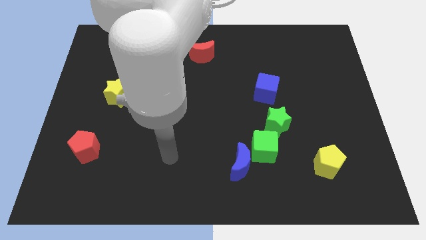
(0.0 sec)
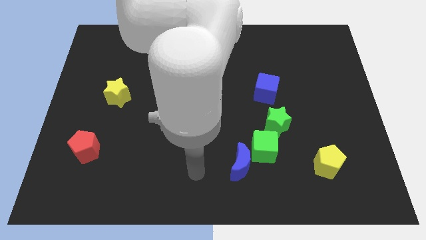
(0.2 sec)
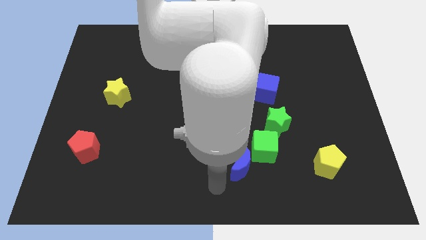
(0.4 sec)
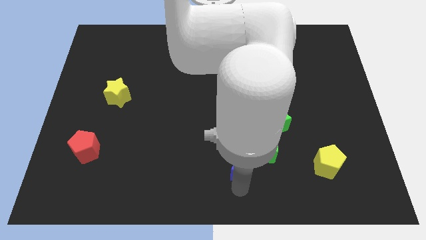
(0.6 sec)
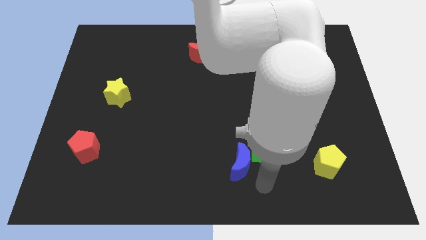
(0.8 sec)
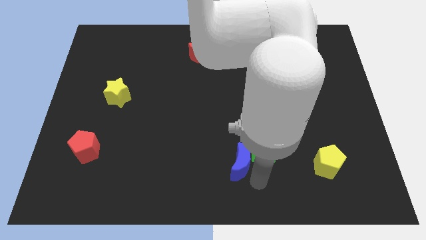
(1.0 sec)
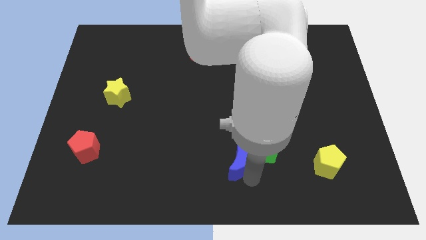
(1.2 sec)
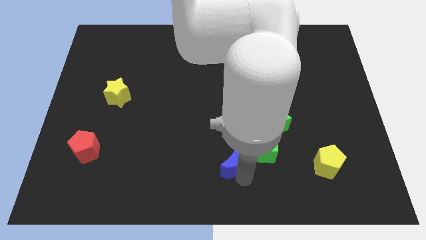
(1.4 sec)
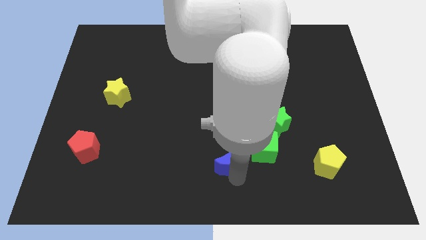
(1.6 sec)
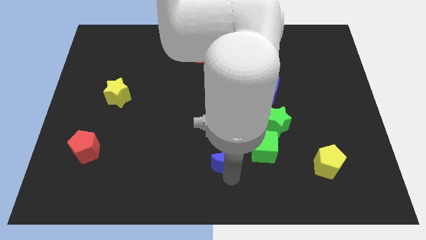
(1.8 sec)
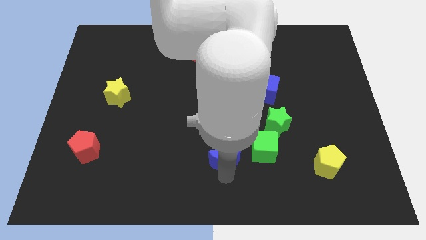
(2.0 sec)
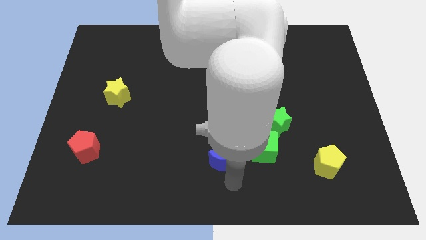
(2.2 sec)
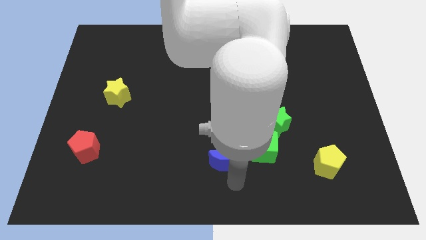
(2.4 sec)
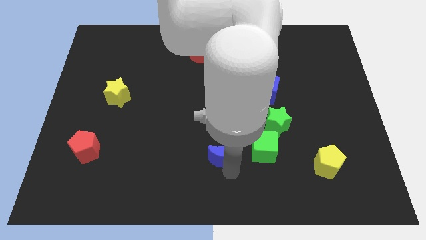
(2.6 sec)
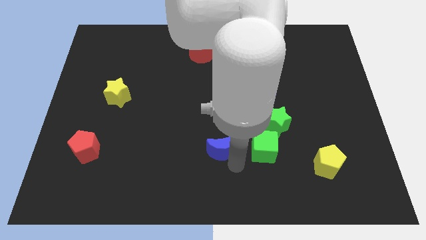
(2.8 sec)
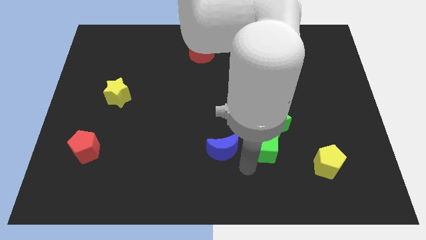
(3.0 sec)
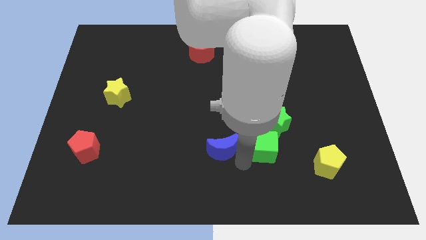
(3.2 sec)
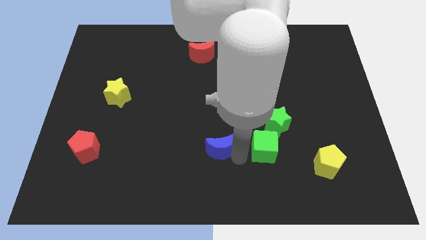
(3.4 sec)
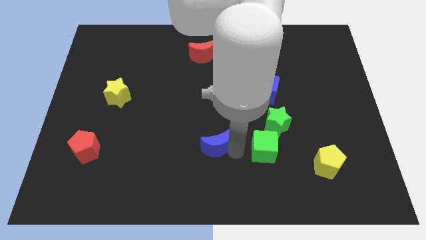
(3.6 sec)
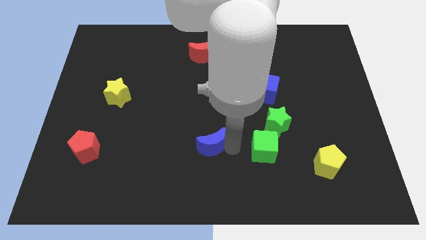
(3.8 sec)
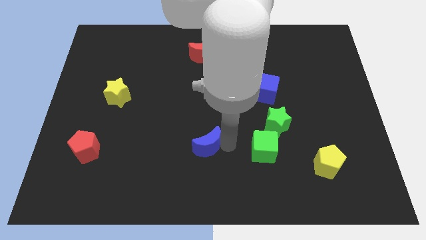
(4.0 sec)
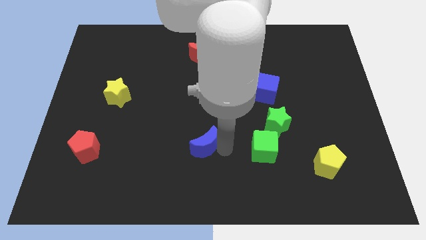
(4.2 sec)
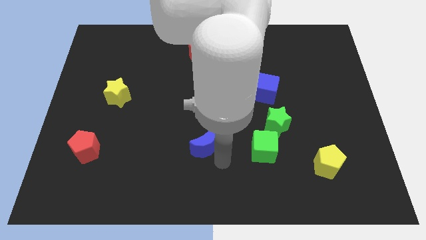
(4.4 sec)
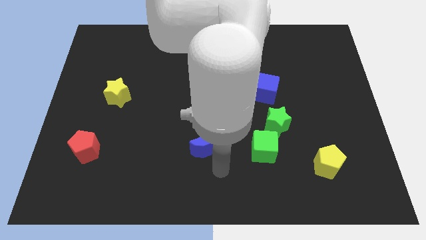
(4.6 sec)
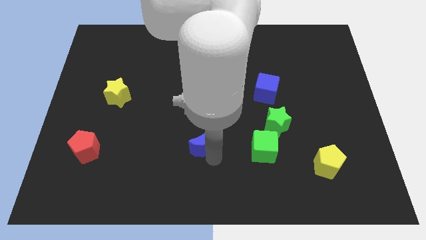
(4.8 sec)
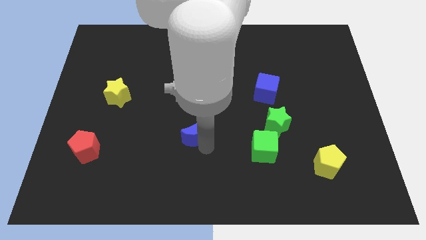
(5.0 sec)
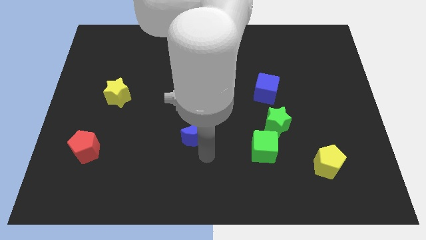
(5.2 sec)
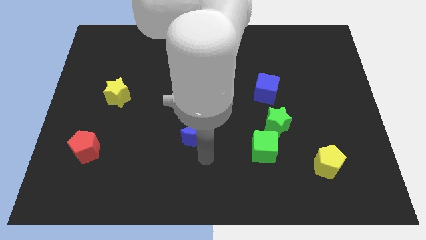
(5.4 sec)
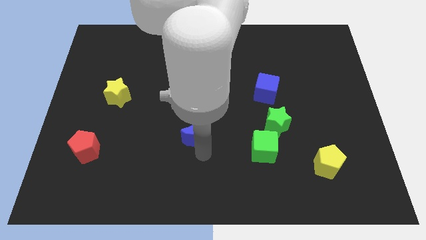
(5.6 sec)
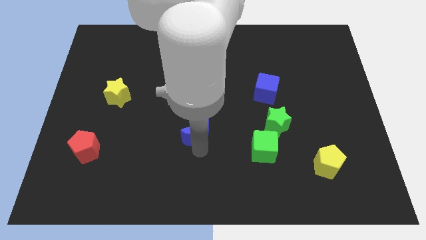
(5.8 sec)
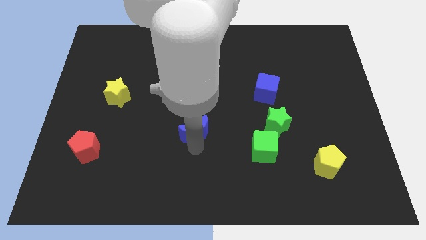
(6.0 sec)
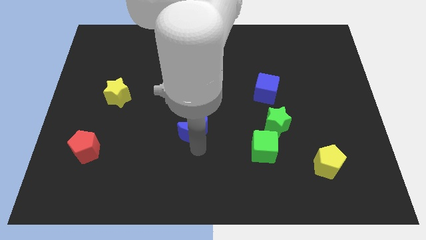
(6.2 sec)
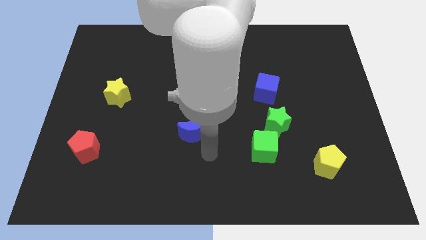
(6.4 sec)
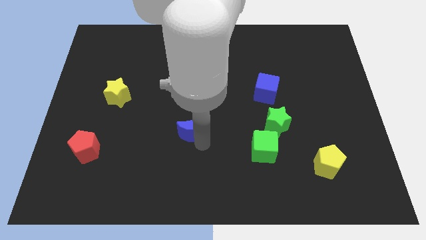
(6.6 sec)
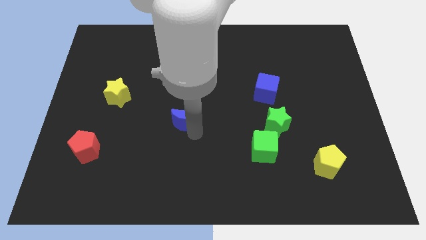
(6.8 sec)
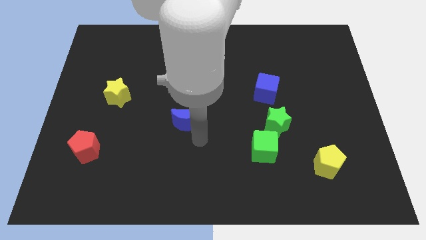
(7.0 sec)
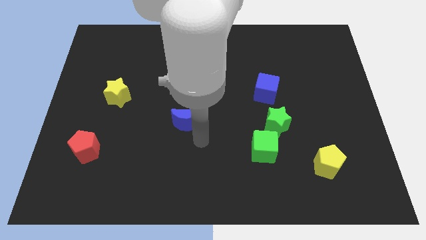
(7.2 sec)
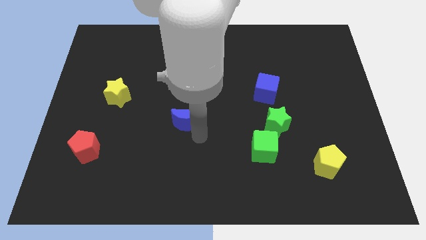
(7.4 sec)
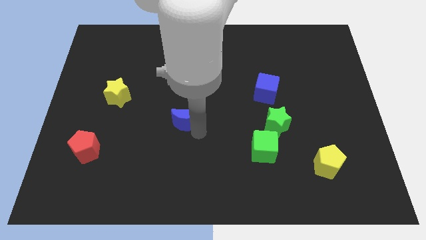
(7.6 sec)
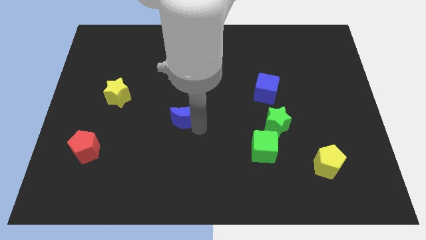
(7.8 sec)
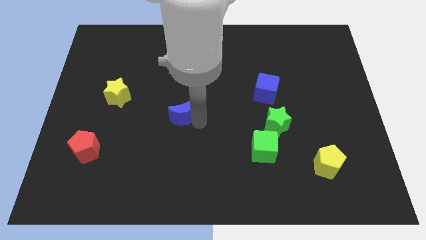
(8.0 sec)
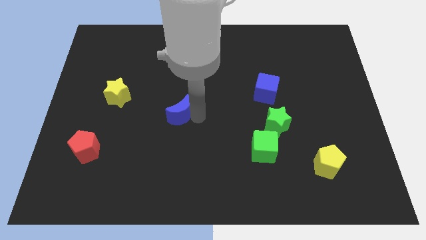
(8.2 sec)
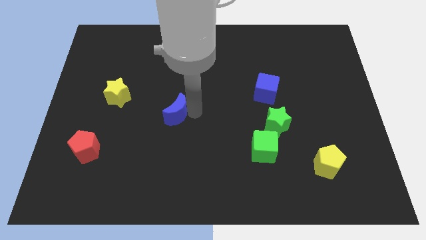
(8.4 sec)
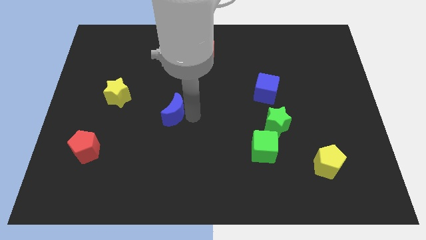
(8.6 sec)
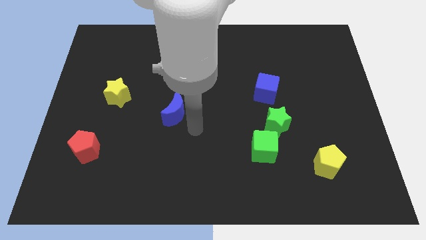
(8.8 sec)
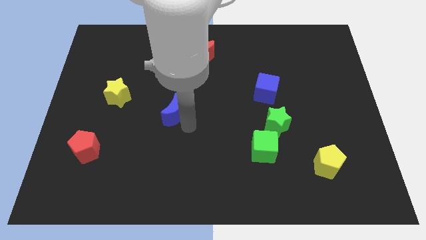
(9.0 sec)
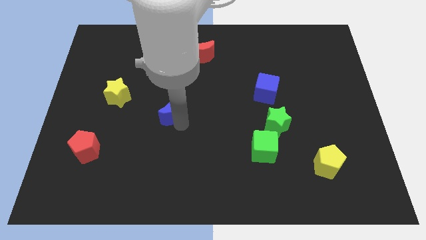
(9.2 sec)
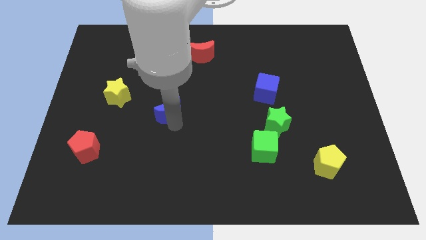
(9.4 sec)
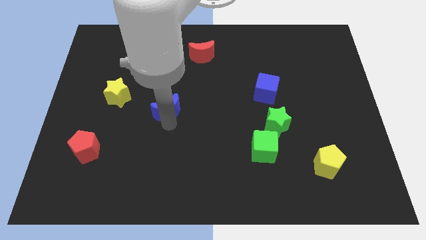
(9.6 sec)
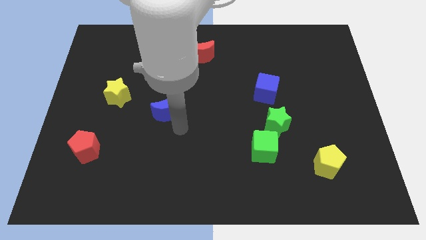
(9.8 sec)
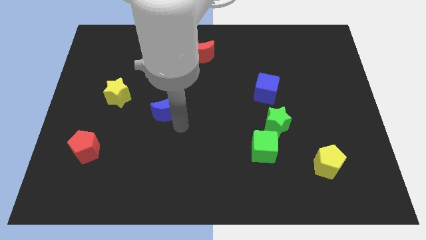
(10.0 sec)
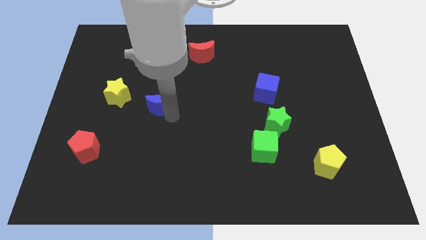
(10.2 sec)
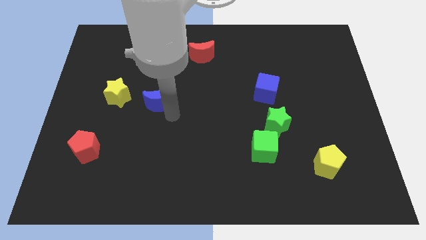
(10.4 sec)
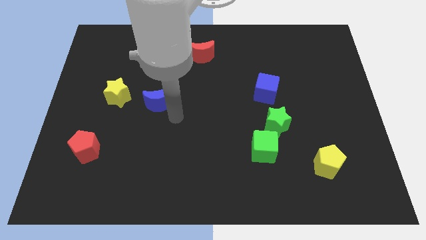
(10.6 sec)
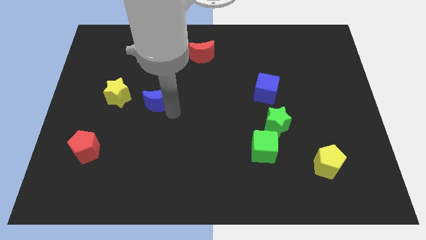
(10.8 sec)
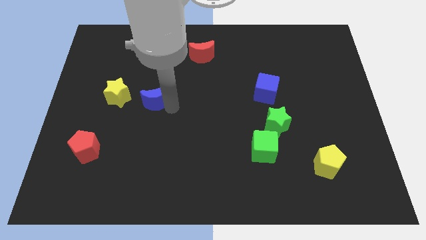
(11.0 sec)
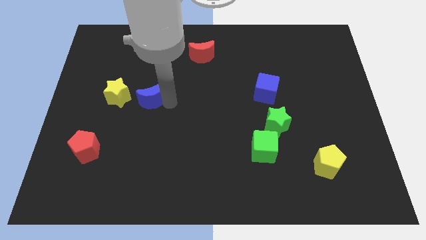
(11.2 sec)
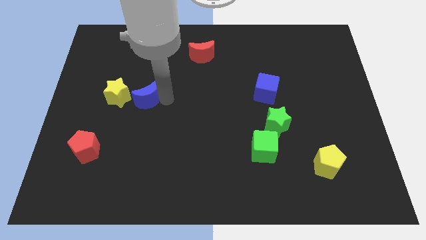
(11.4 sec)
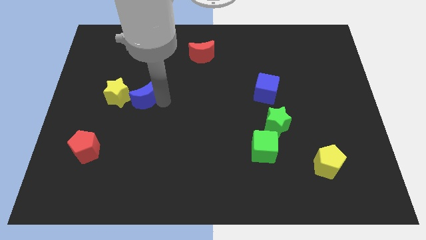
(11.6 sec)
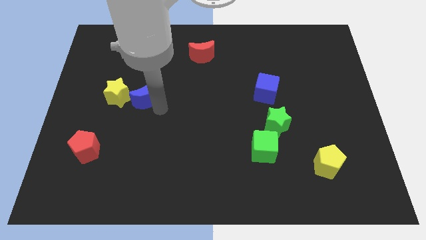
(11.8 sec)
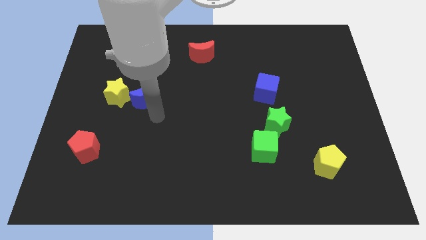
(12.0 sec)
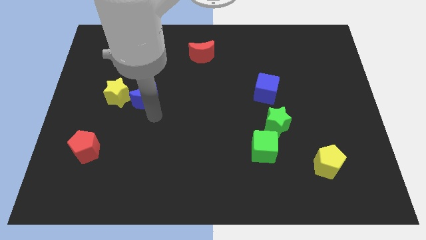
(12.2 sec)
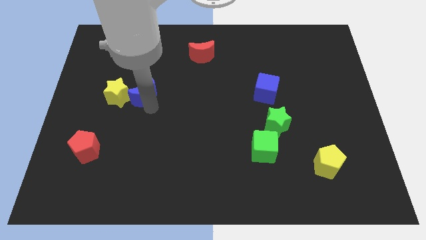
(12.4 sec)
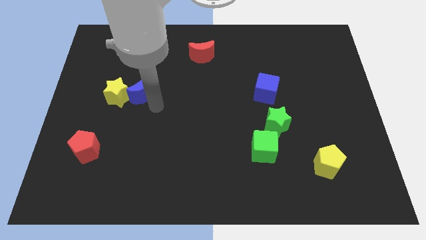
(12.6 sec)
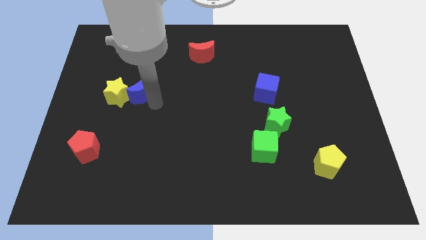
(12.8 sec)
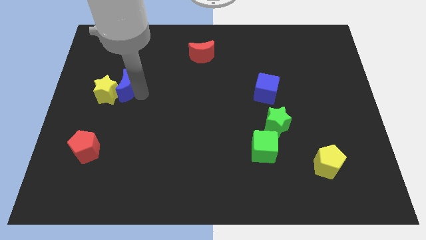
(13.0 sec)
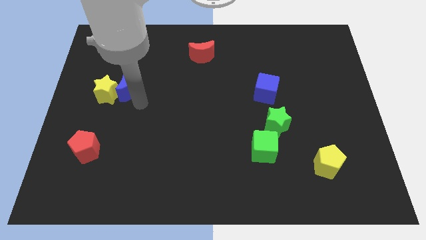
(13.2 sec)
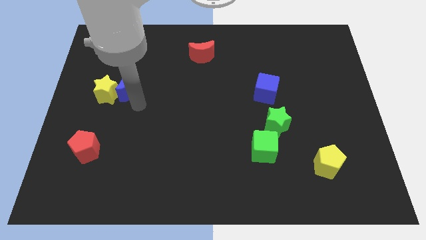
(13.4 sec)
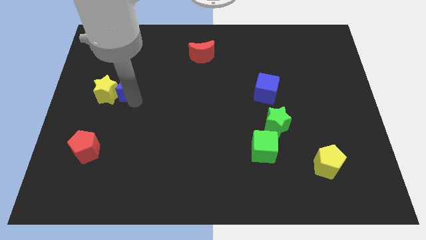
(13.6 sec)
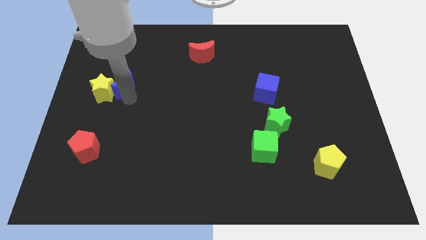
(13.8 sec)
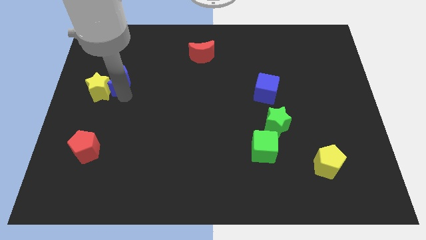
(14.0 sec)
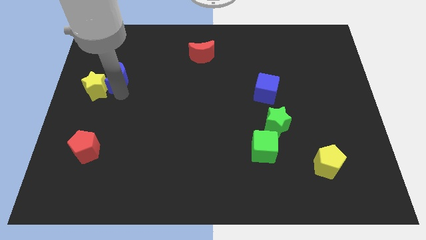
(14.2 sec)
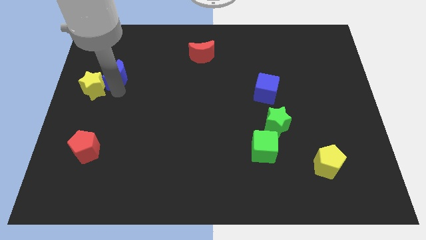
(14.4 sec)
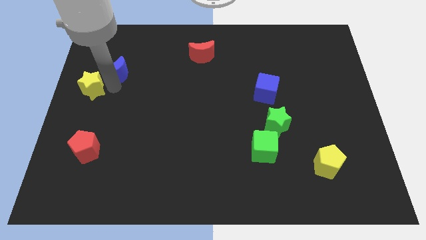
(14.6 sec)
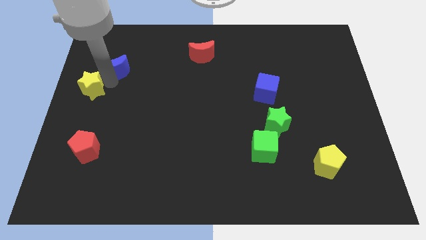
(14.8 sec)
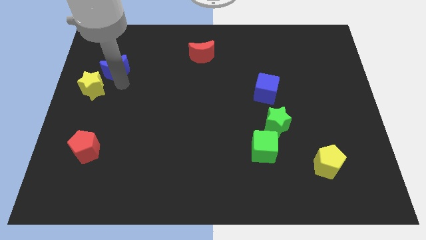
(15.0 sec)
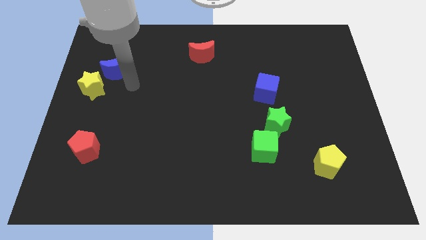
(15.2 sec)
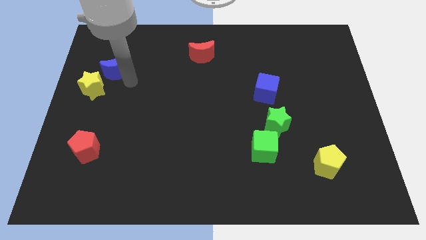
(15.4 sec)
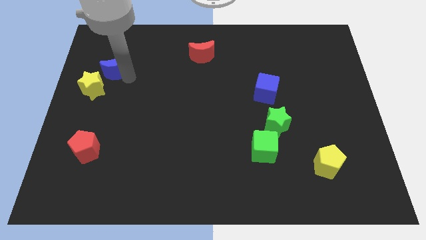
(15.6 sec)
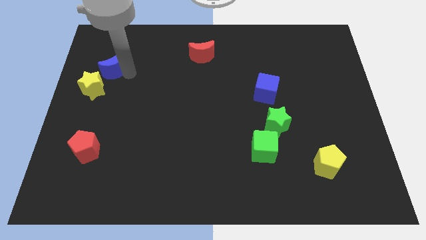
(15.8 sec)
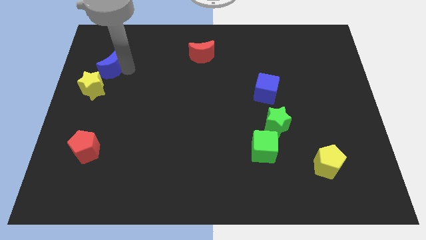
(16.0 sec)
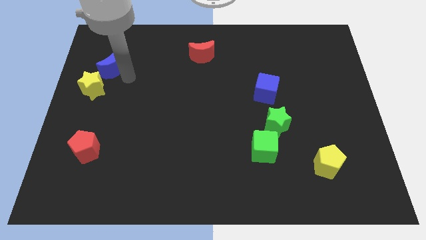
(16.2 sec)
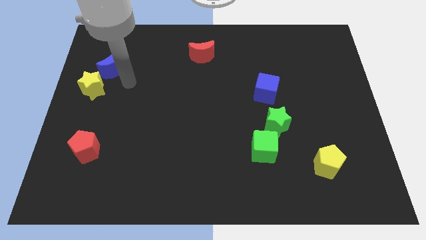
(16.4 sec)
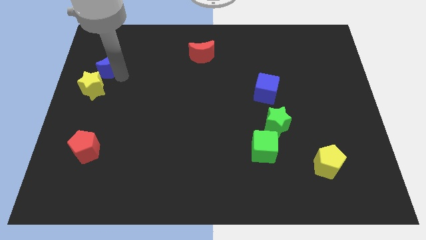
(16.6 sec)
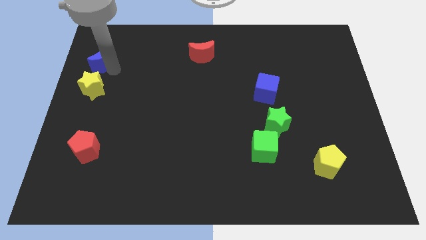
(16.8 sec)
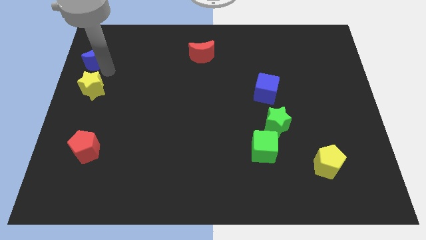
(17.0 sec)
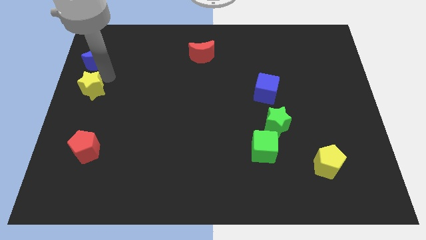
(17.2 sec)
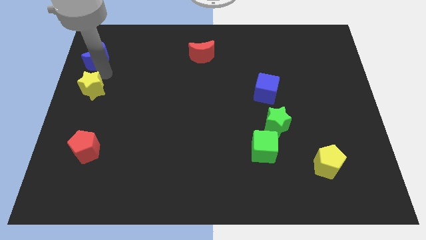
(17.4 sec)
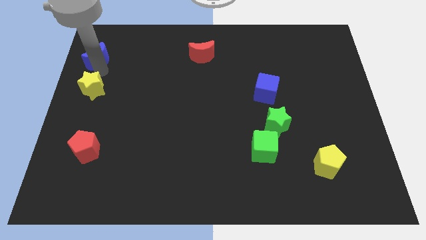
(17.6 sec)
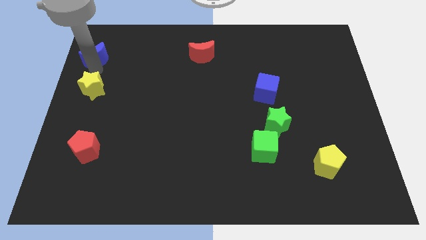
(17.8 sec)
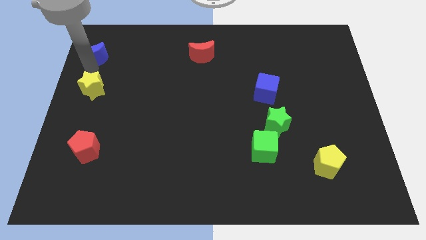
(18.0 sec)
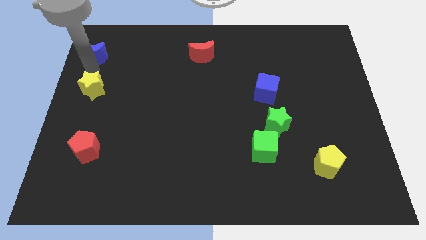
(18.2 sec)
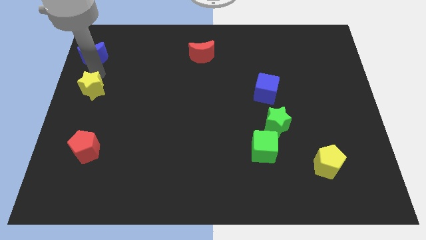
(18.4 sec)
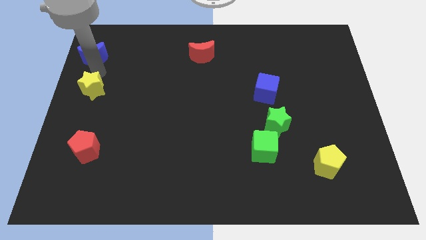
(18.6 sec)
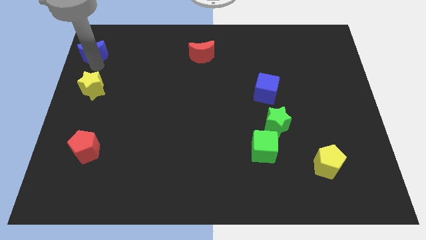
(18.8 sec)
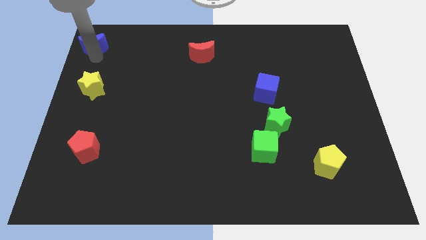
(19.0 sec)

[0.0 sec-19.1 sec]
put the blue moon to the top left corner
